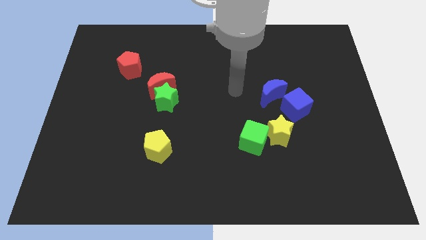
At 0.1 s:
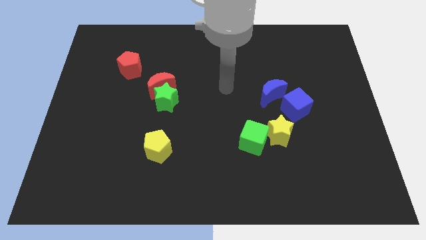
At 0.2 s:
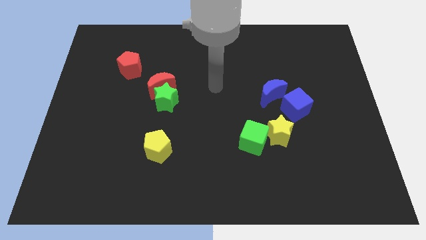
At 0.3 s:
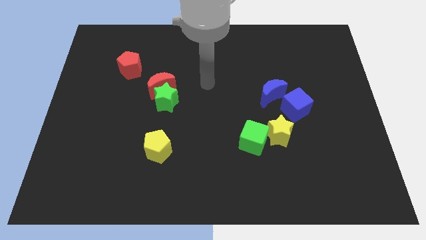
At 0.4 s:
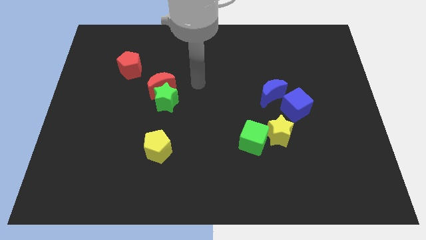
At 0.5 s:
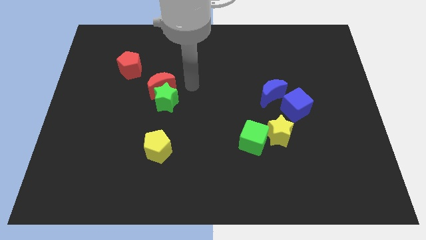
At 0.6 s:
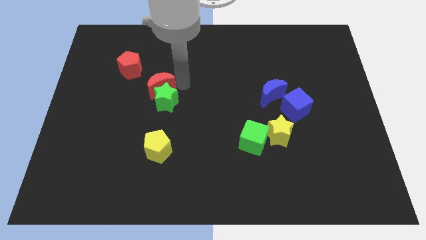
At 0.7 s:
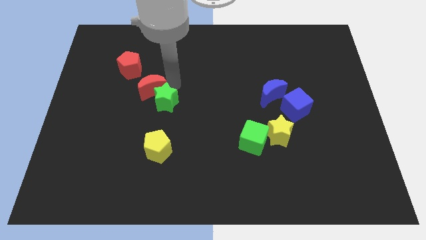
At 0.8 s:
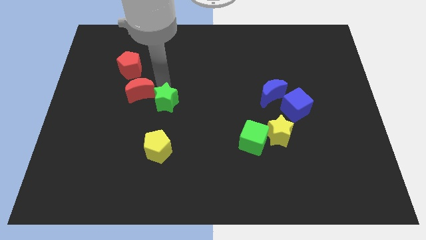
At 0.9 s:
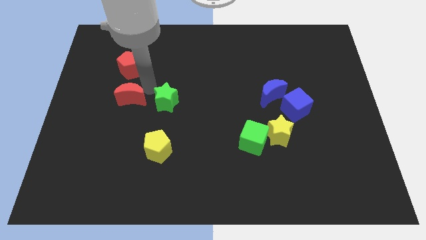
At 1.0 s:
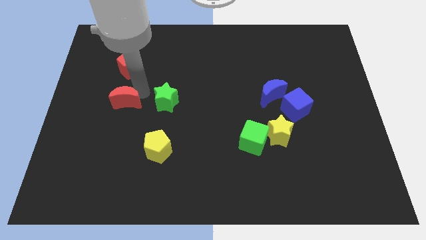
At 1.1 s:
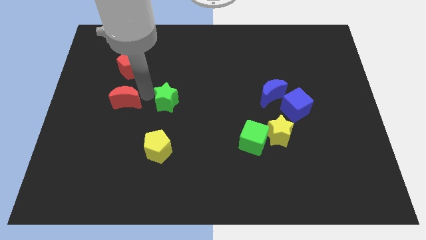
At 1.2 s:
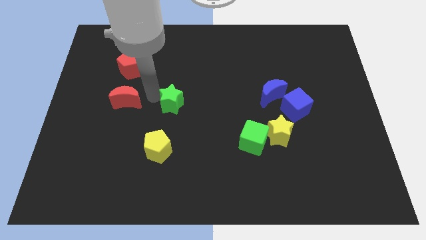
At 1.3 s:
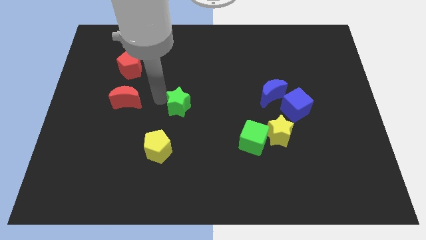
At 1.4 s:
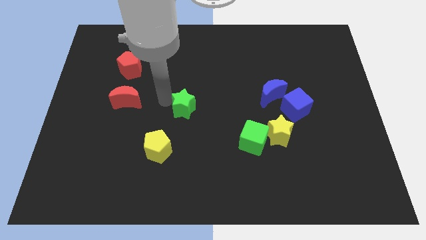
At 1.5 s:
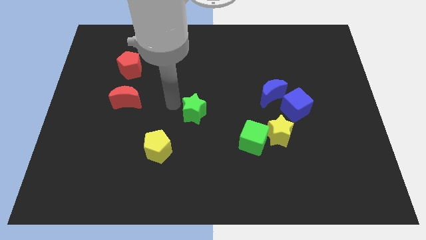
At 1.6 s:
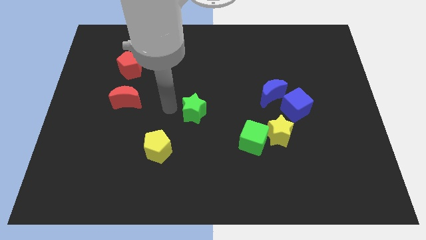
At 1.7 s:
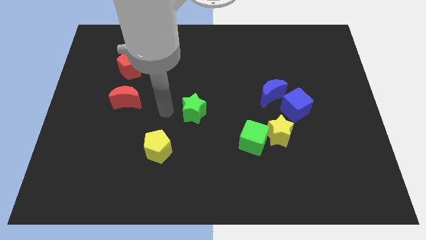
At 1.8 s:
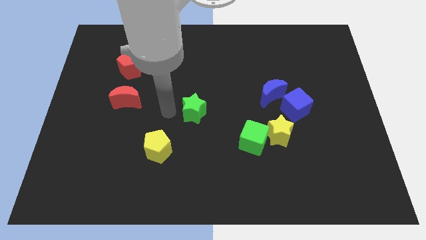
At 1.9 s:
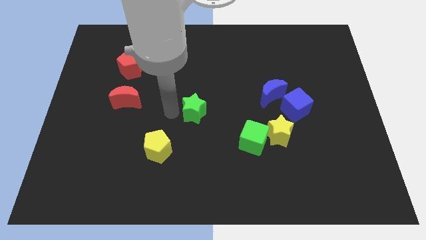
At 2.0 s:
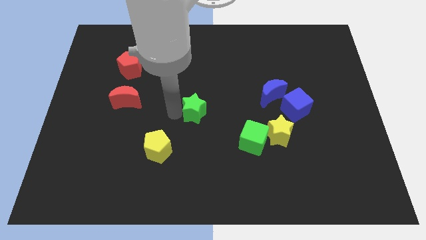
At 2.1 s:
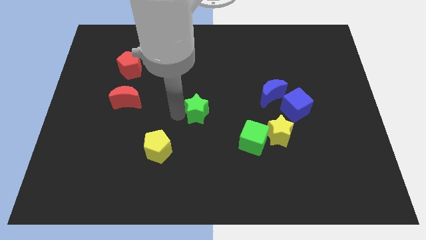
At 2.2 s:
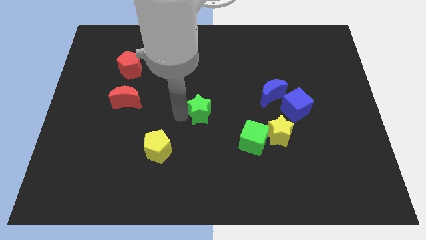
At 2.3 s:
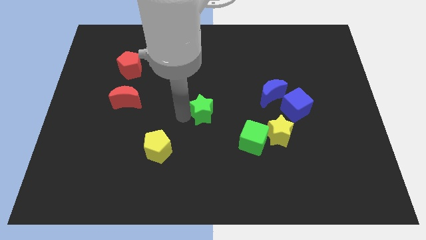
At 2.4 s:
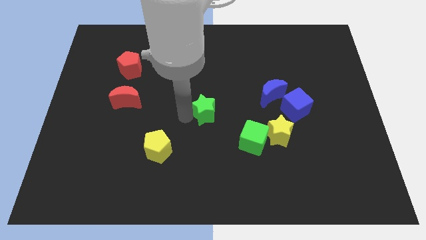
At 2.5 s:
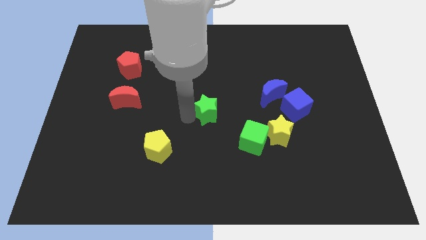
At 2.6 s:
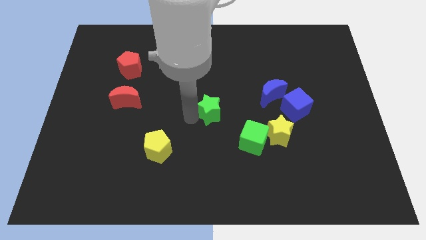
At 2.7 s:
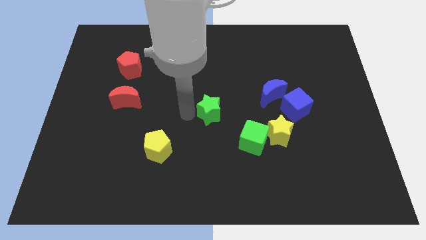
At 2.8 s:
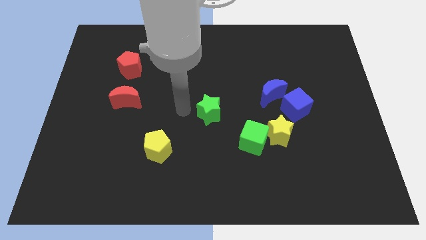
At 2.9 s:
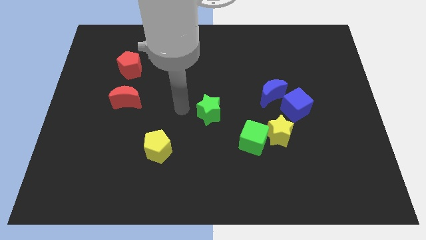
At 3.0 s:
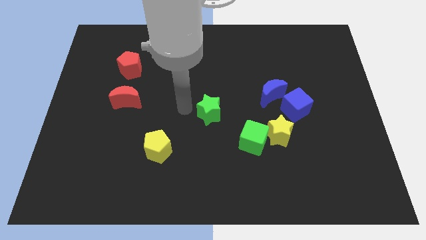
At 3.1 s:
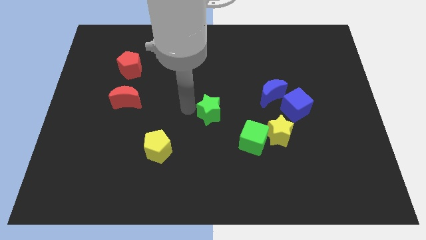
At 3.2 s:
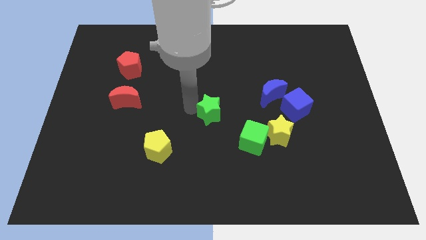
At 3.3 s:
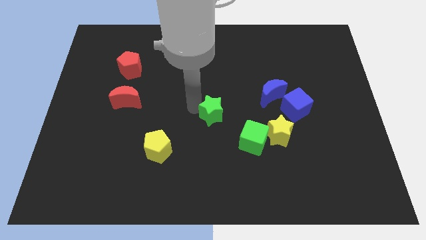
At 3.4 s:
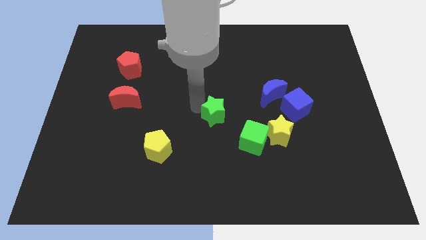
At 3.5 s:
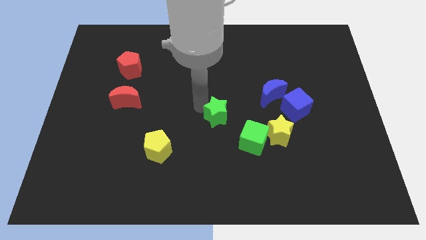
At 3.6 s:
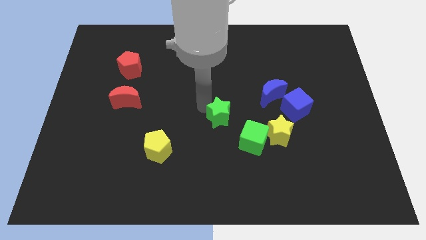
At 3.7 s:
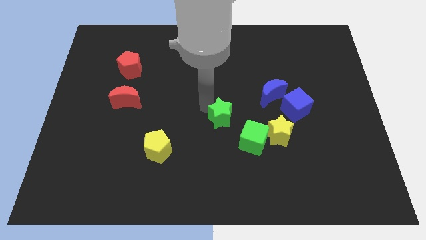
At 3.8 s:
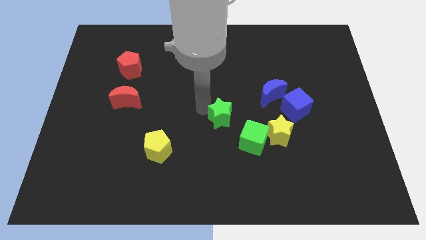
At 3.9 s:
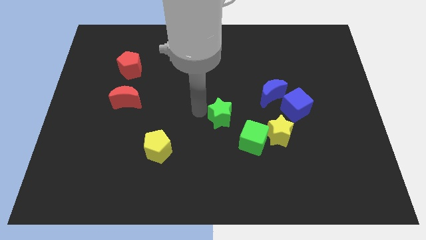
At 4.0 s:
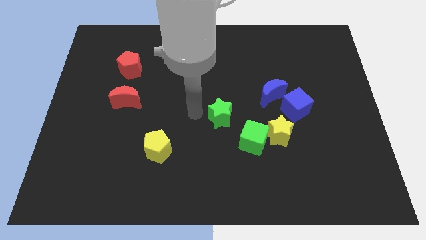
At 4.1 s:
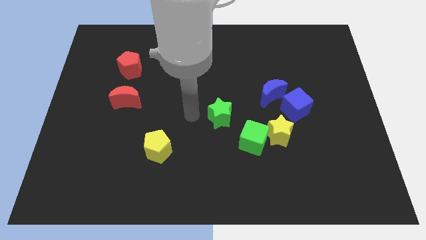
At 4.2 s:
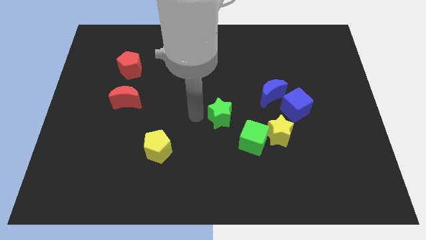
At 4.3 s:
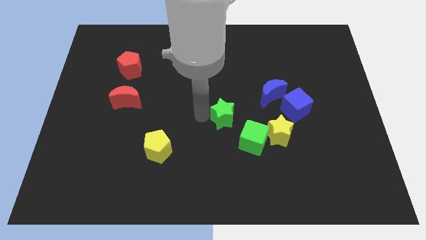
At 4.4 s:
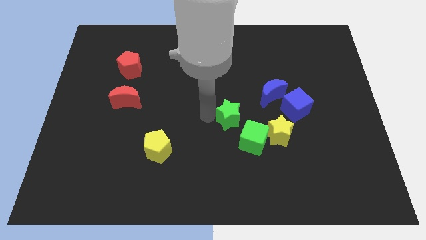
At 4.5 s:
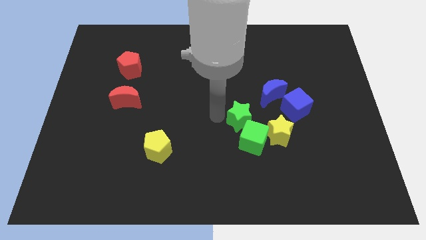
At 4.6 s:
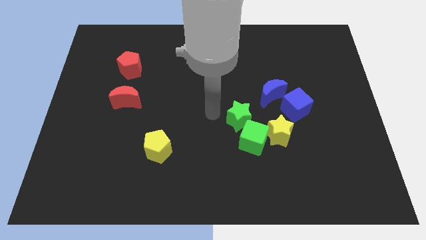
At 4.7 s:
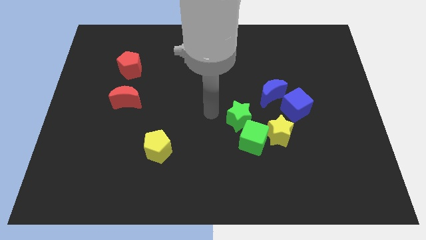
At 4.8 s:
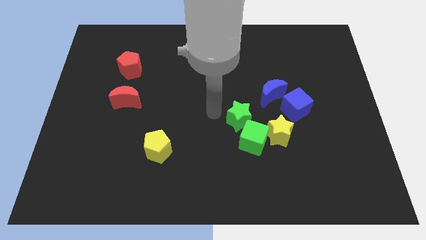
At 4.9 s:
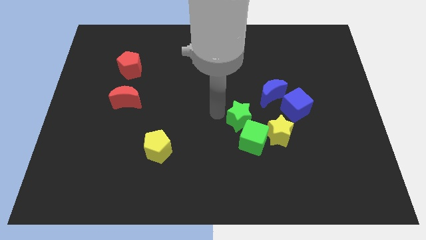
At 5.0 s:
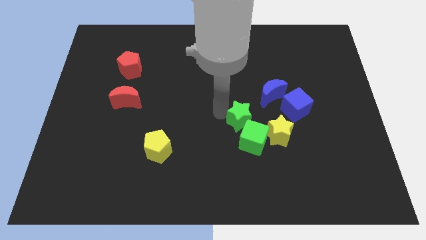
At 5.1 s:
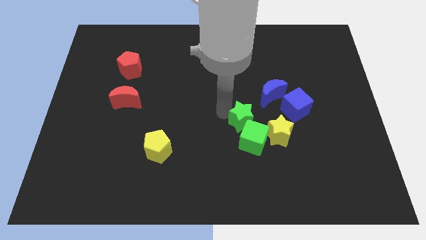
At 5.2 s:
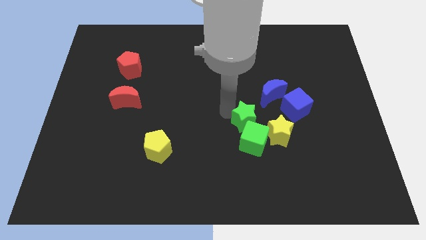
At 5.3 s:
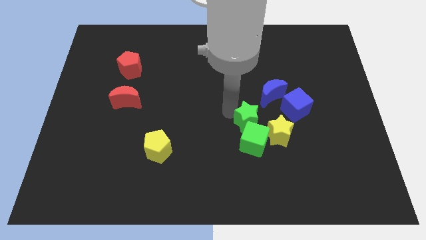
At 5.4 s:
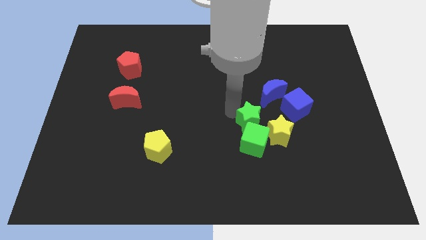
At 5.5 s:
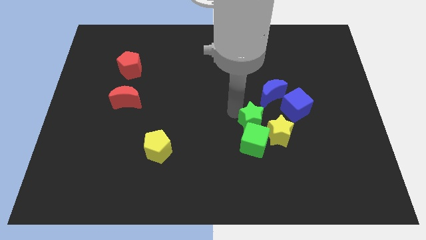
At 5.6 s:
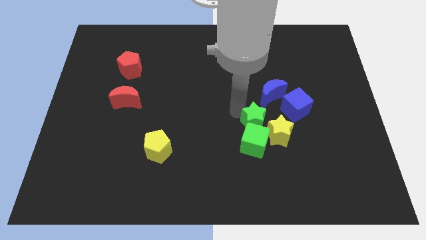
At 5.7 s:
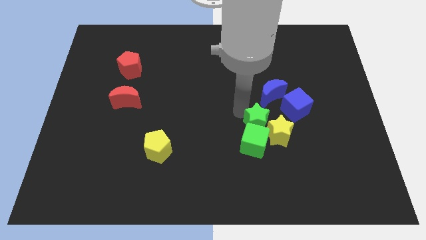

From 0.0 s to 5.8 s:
put the green star next to the yellow star

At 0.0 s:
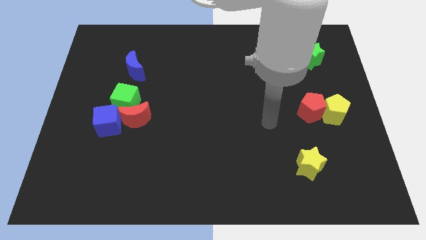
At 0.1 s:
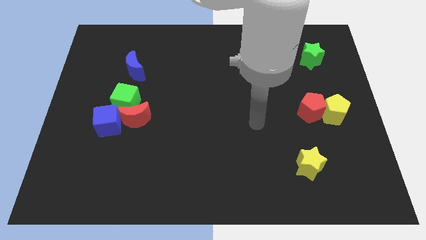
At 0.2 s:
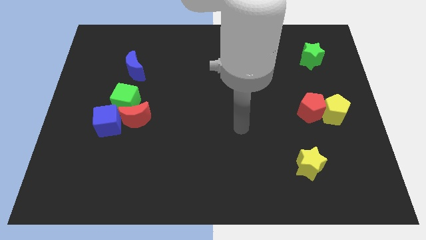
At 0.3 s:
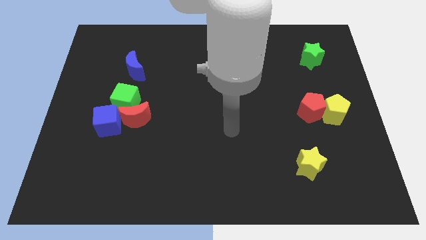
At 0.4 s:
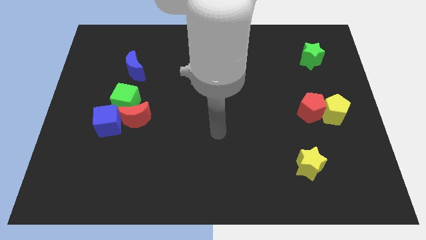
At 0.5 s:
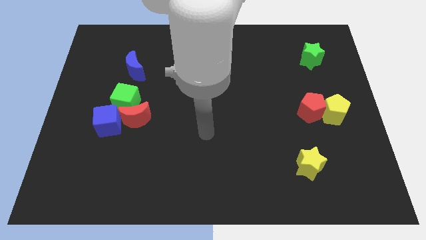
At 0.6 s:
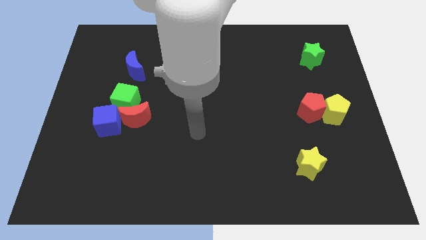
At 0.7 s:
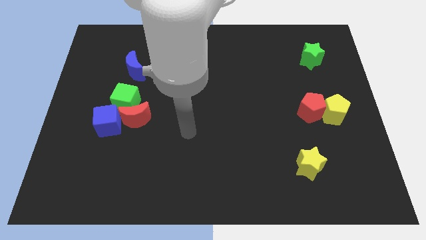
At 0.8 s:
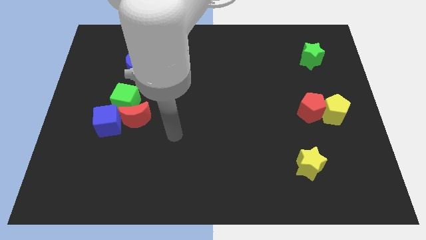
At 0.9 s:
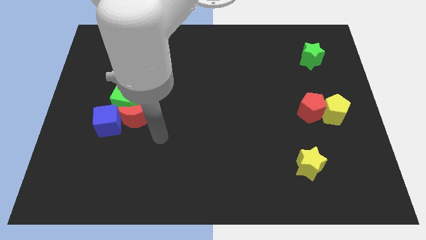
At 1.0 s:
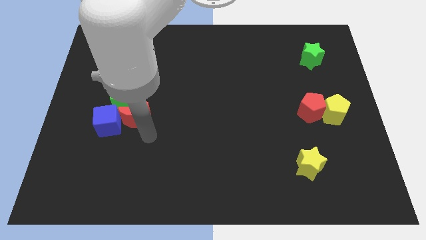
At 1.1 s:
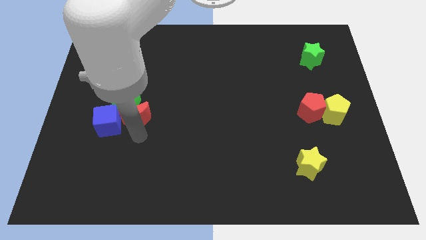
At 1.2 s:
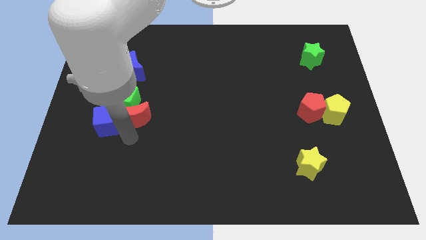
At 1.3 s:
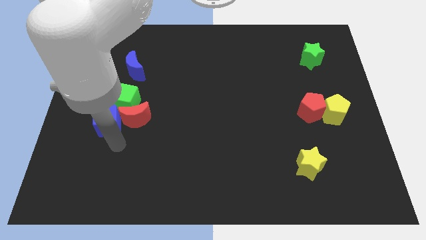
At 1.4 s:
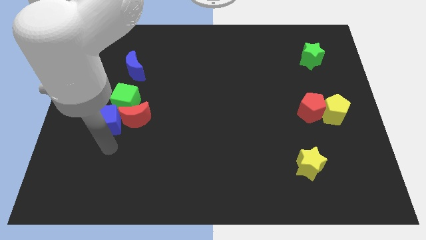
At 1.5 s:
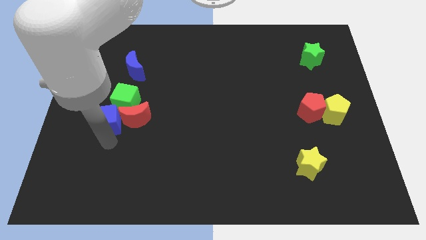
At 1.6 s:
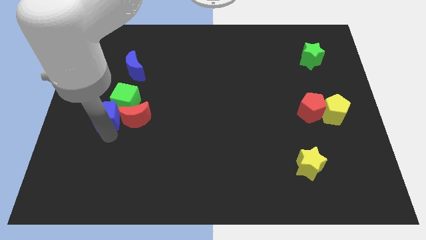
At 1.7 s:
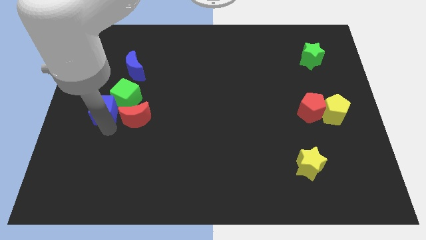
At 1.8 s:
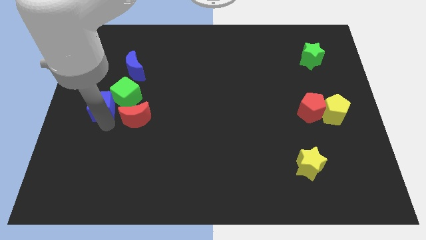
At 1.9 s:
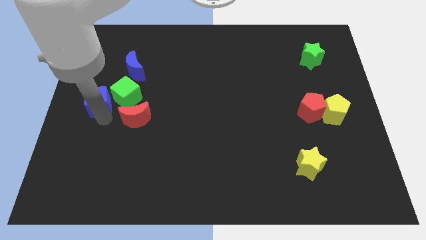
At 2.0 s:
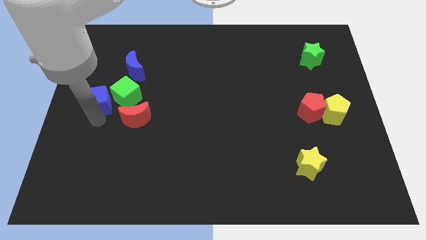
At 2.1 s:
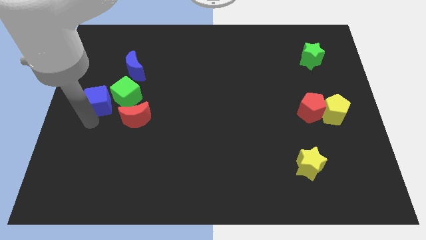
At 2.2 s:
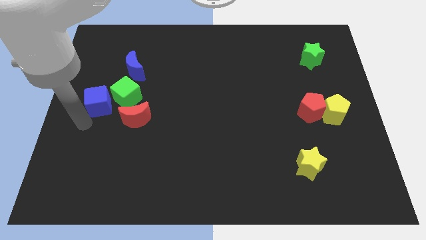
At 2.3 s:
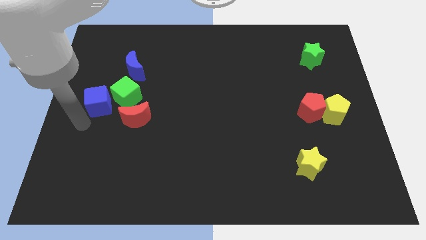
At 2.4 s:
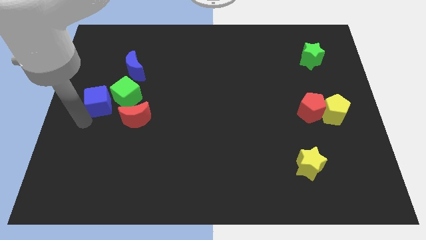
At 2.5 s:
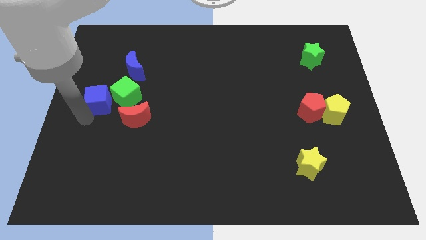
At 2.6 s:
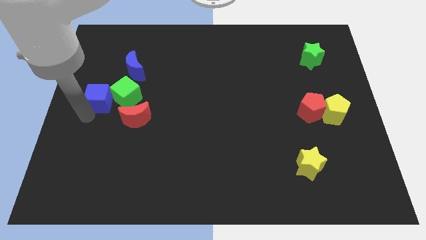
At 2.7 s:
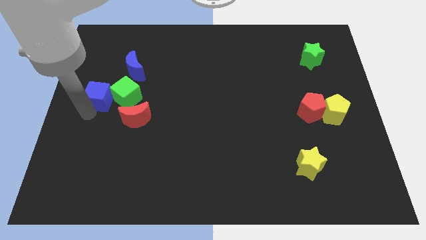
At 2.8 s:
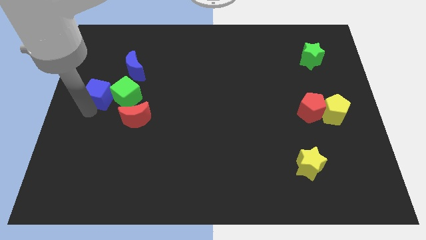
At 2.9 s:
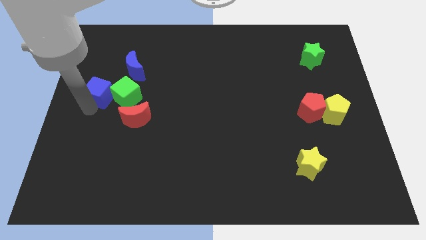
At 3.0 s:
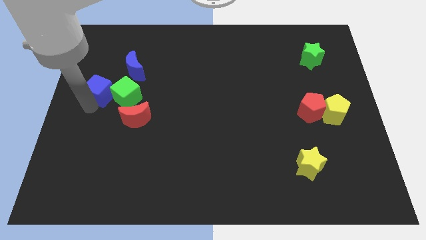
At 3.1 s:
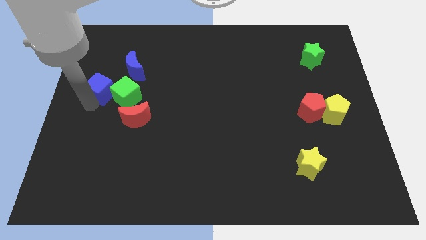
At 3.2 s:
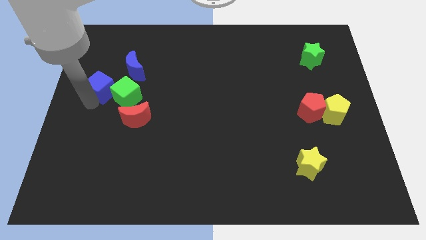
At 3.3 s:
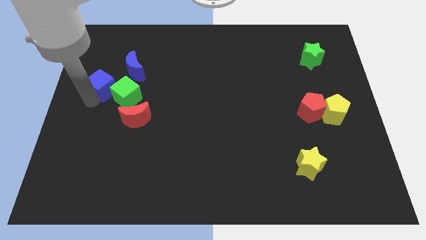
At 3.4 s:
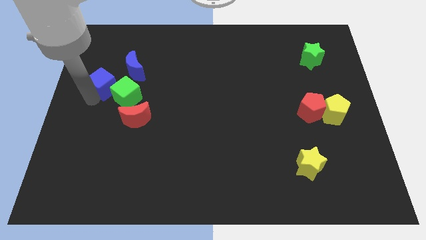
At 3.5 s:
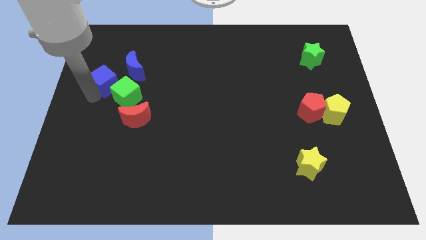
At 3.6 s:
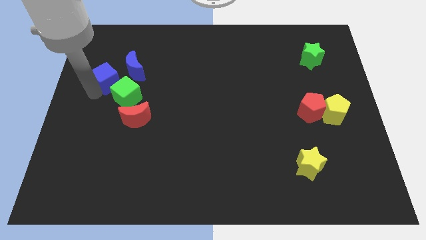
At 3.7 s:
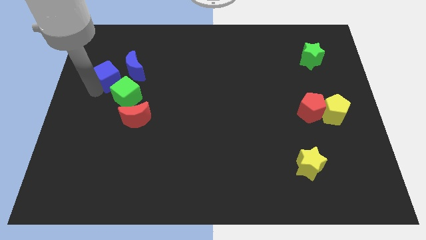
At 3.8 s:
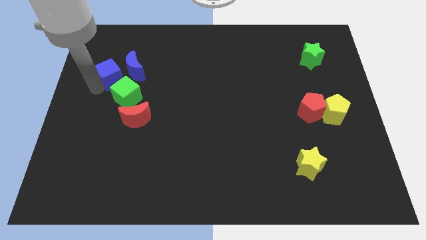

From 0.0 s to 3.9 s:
move the blue cube next to the blue moon
